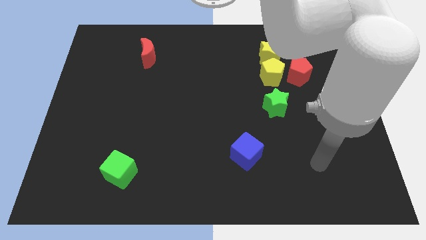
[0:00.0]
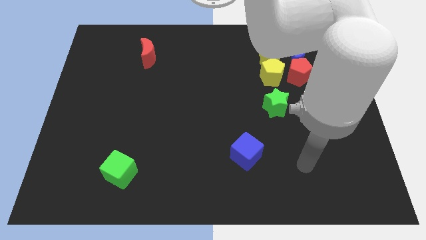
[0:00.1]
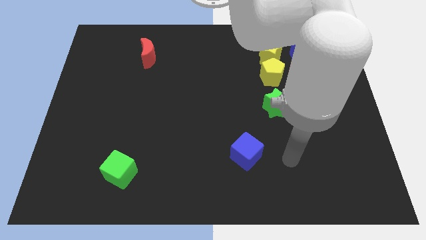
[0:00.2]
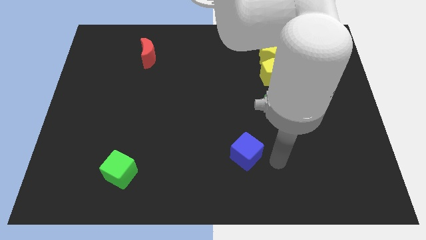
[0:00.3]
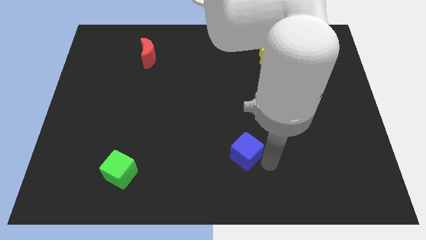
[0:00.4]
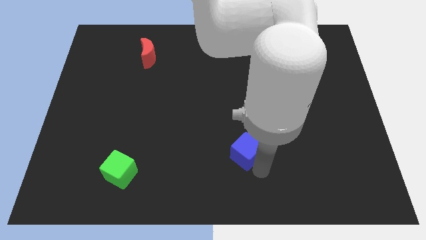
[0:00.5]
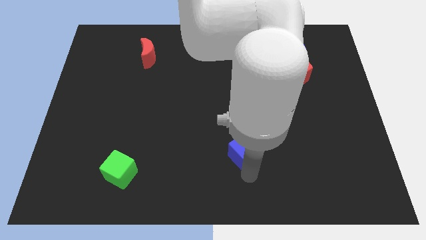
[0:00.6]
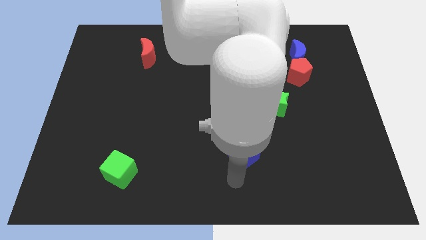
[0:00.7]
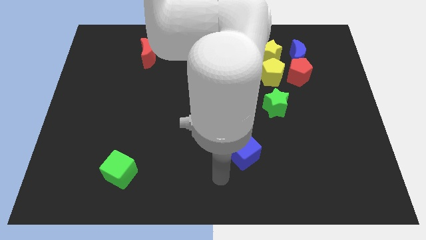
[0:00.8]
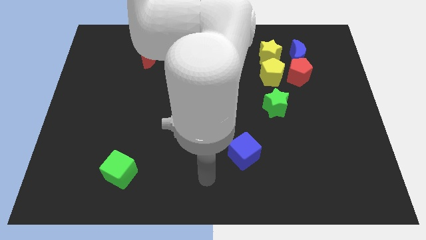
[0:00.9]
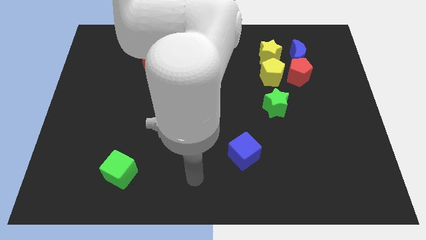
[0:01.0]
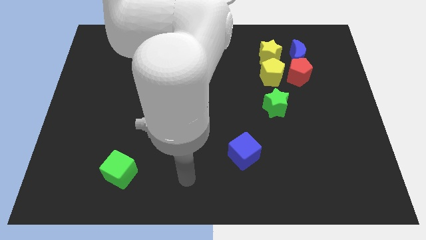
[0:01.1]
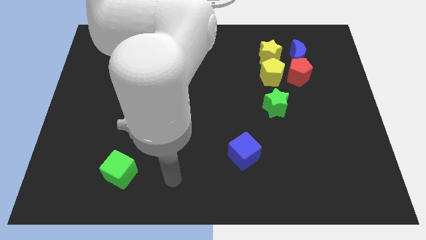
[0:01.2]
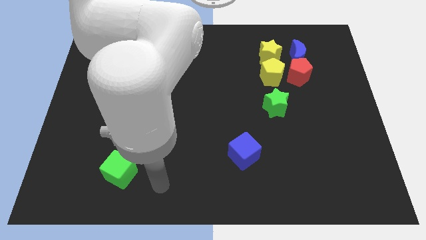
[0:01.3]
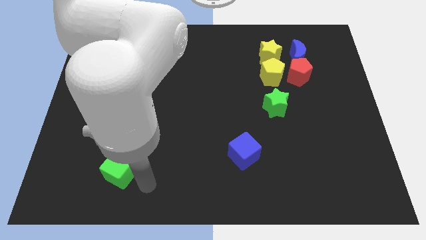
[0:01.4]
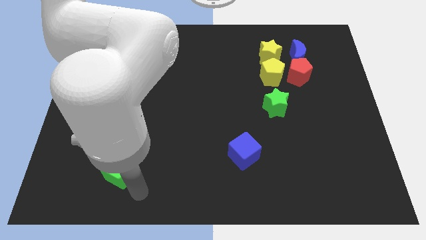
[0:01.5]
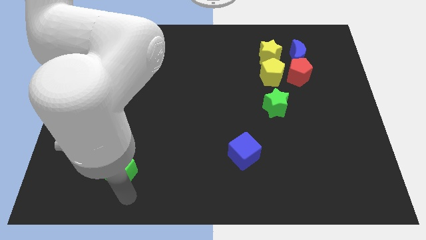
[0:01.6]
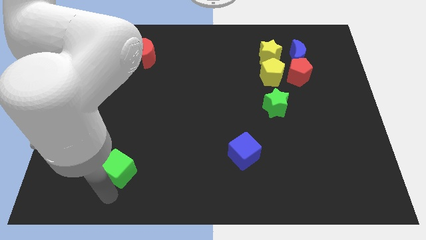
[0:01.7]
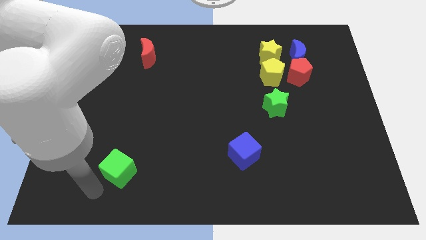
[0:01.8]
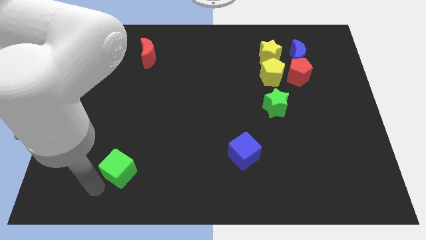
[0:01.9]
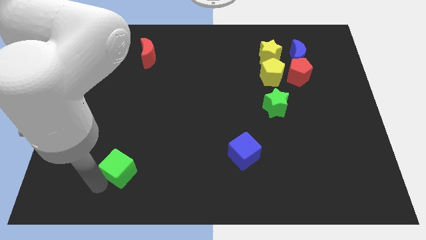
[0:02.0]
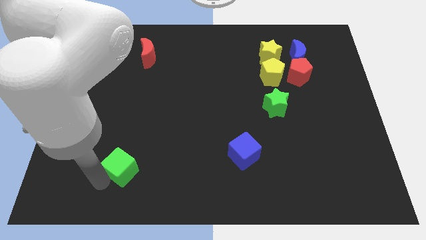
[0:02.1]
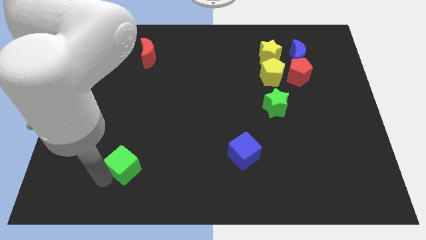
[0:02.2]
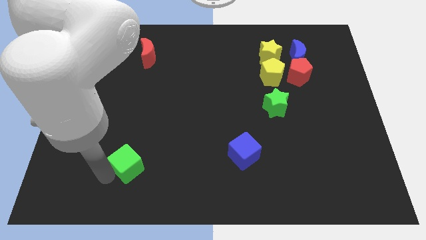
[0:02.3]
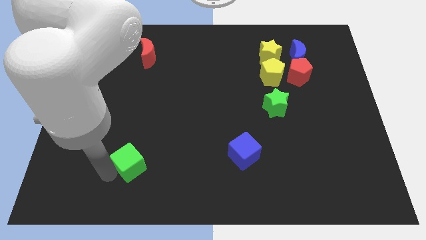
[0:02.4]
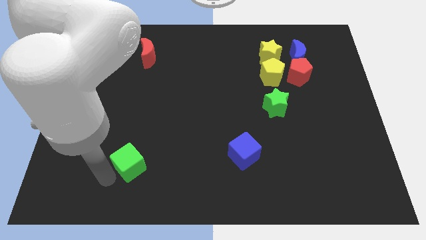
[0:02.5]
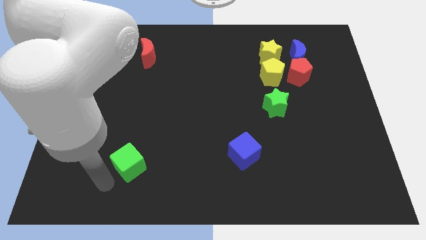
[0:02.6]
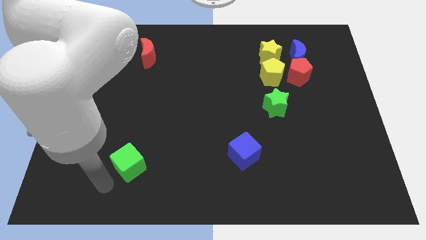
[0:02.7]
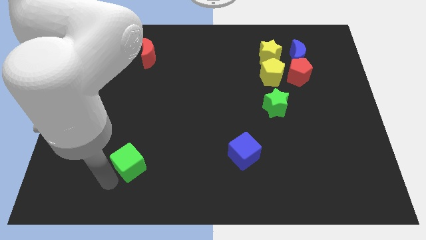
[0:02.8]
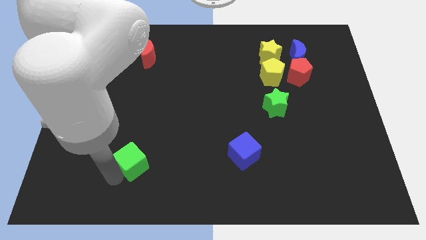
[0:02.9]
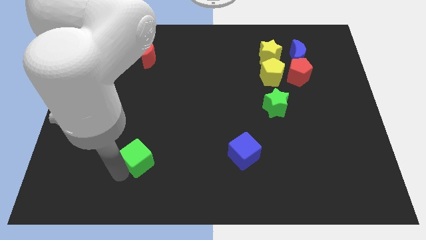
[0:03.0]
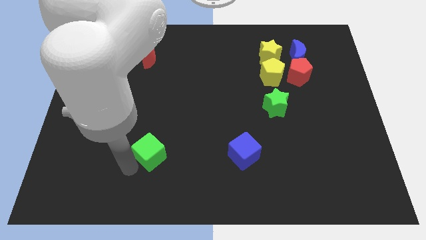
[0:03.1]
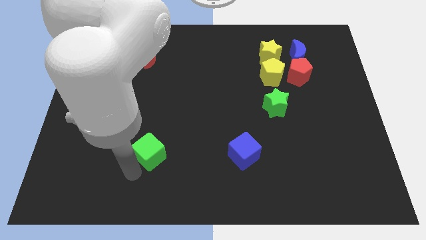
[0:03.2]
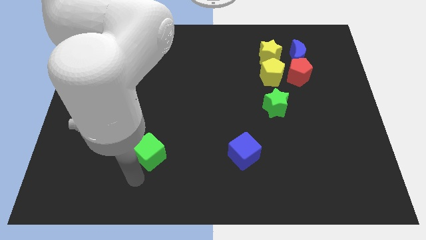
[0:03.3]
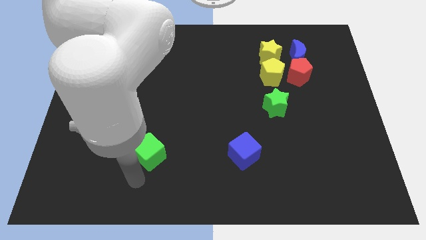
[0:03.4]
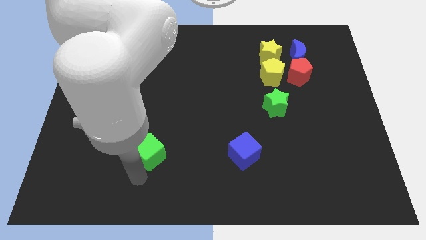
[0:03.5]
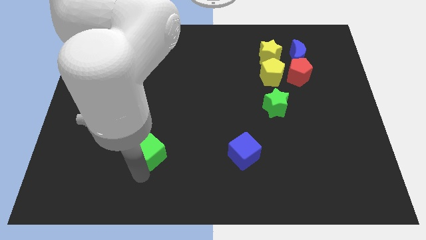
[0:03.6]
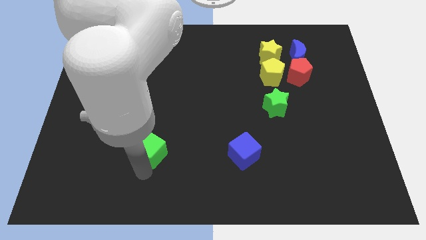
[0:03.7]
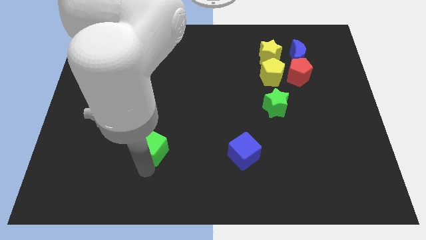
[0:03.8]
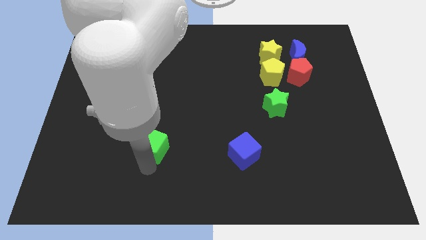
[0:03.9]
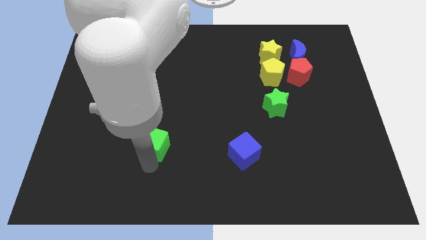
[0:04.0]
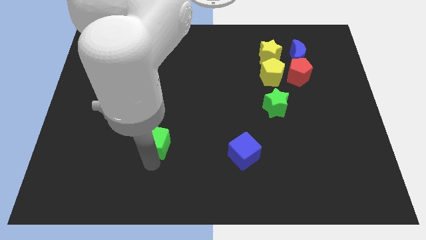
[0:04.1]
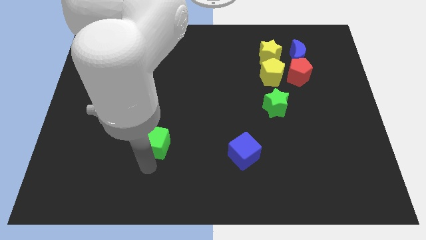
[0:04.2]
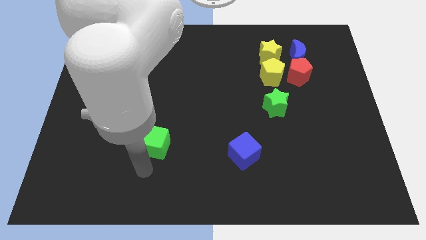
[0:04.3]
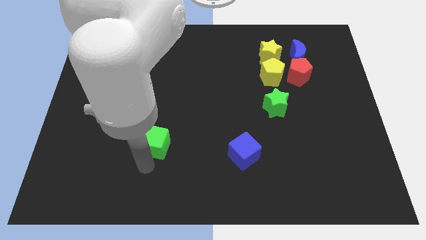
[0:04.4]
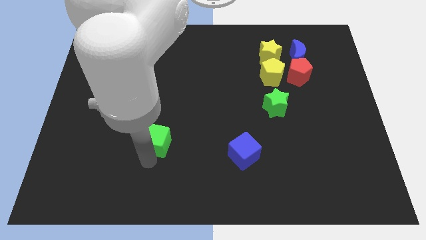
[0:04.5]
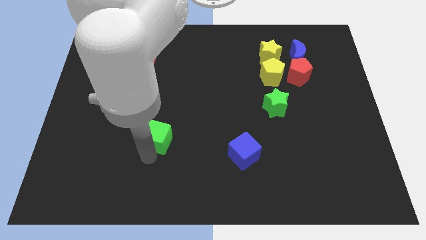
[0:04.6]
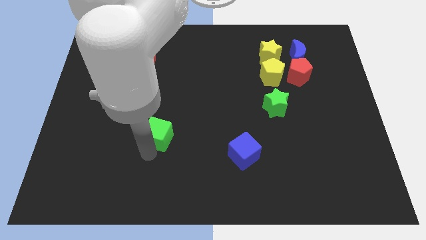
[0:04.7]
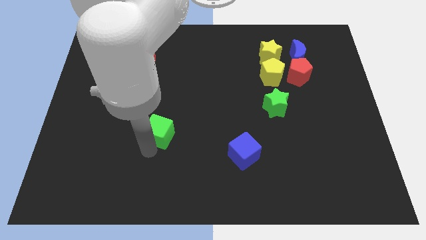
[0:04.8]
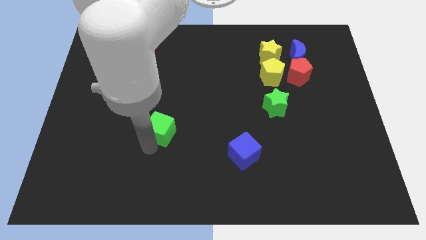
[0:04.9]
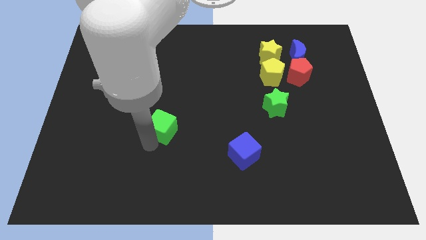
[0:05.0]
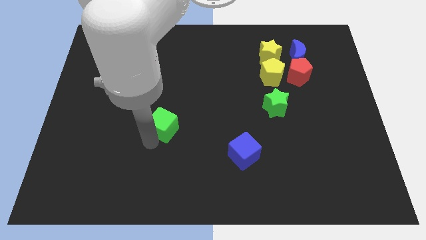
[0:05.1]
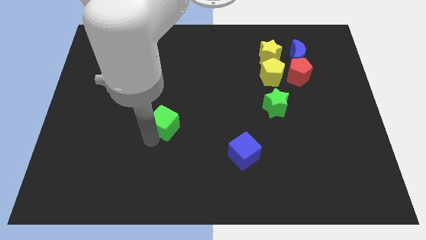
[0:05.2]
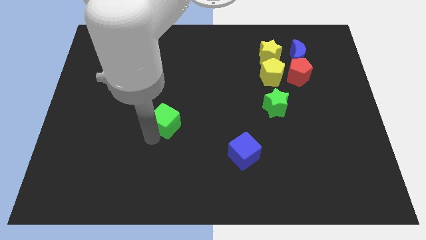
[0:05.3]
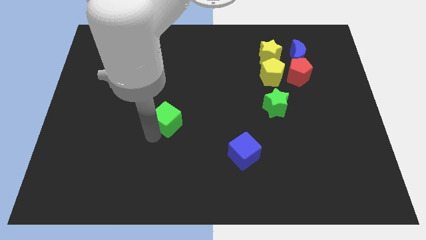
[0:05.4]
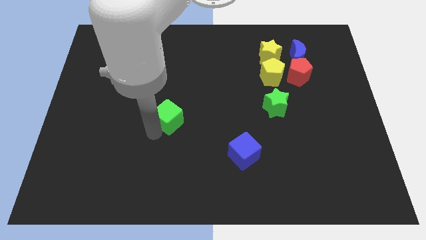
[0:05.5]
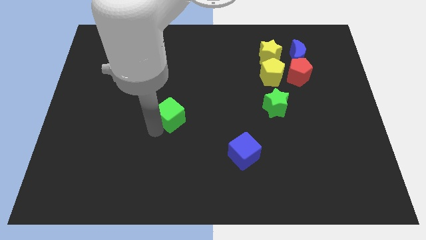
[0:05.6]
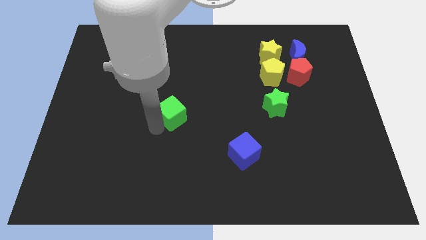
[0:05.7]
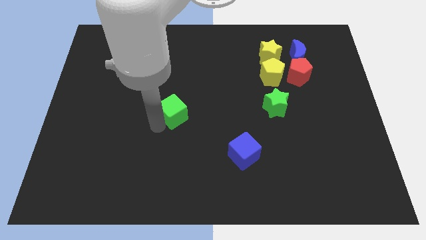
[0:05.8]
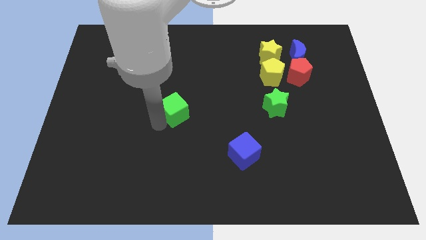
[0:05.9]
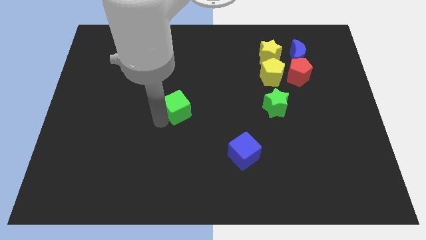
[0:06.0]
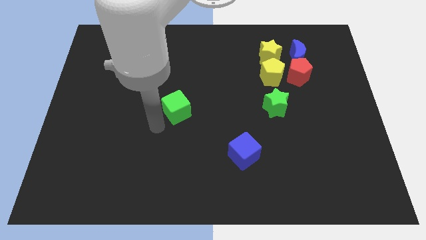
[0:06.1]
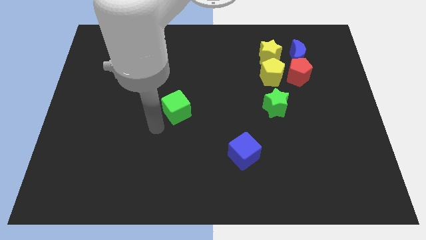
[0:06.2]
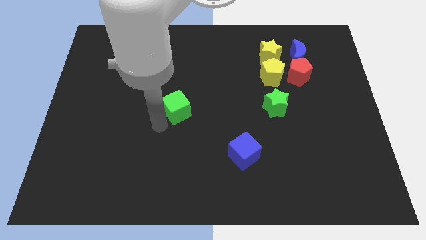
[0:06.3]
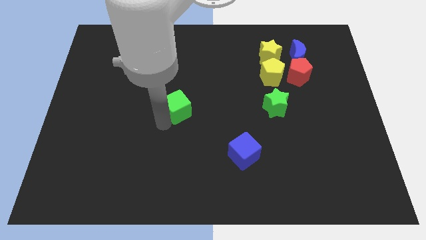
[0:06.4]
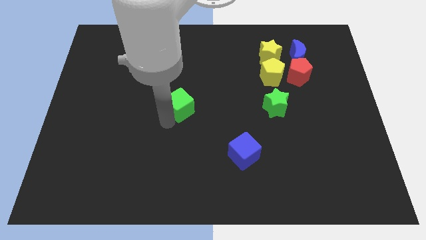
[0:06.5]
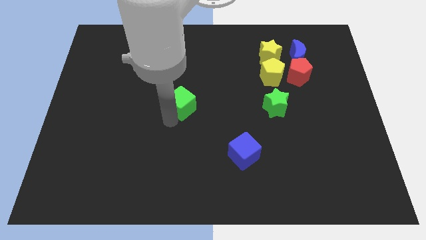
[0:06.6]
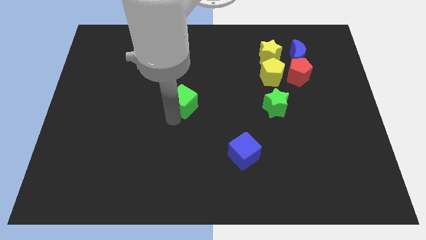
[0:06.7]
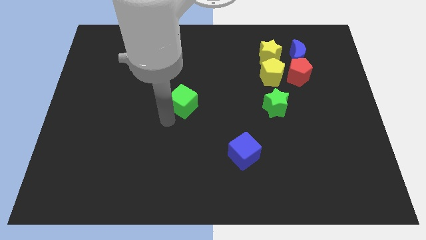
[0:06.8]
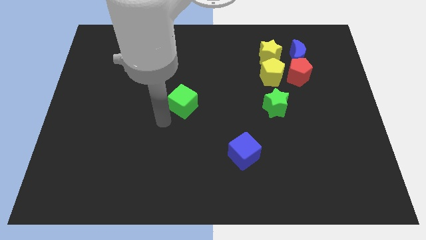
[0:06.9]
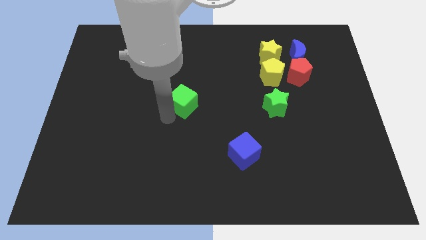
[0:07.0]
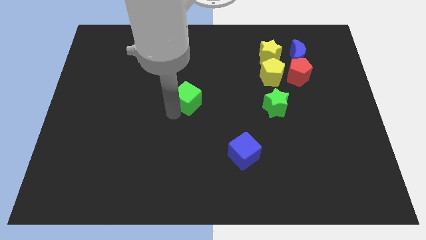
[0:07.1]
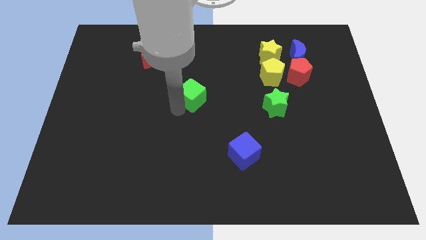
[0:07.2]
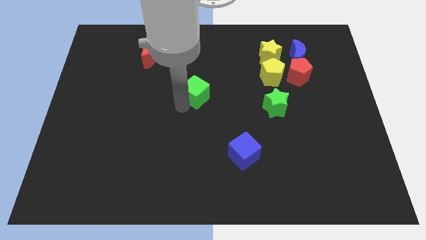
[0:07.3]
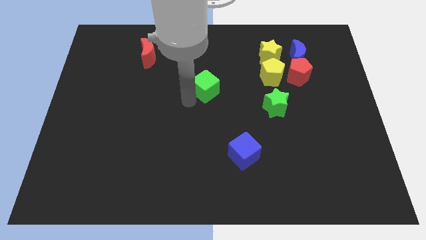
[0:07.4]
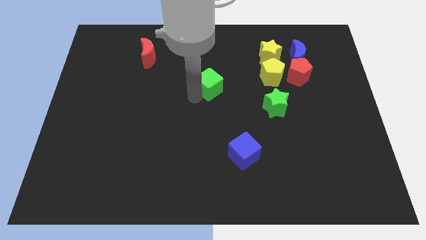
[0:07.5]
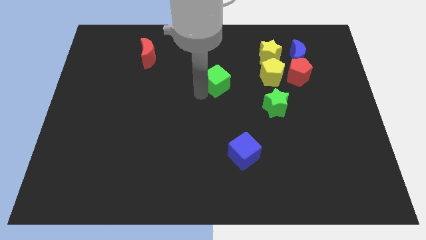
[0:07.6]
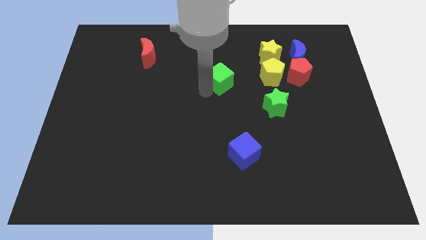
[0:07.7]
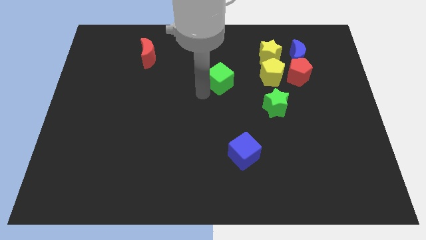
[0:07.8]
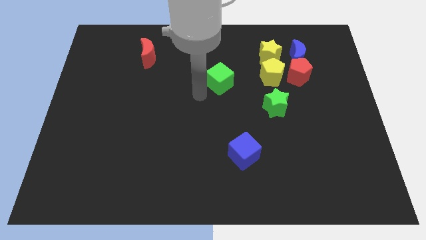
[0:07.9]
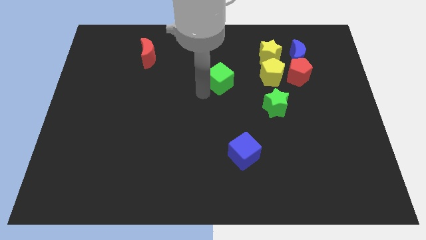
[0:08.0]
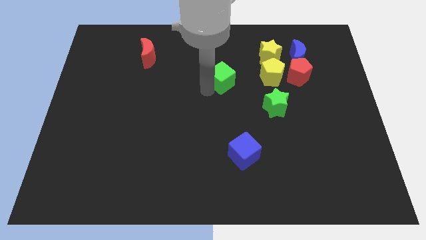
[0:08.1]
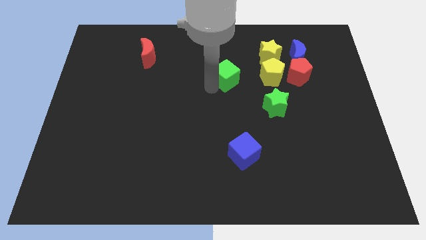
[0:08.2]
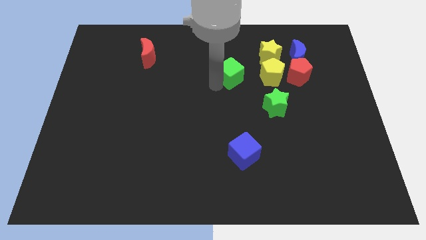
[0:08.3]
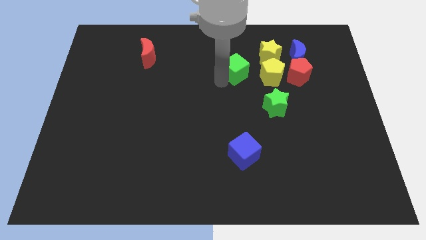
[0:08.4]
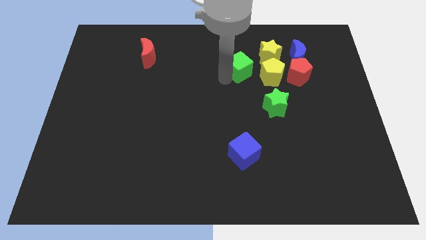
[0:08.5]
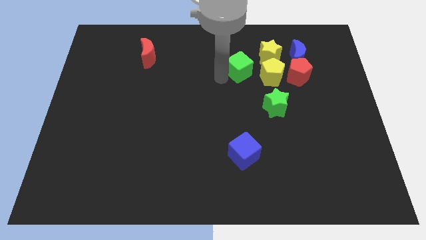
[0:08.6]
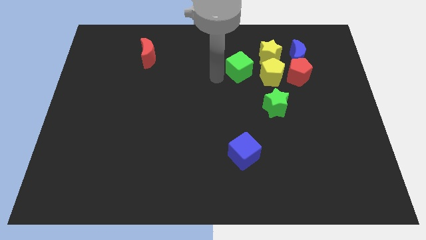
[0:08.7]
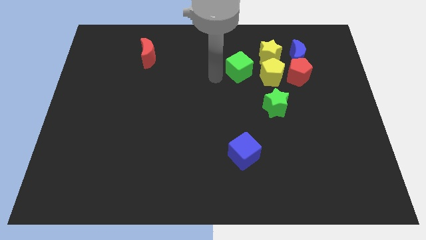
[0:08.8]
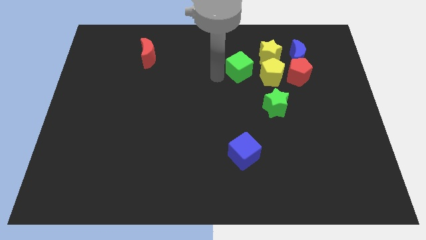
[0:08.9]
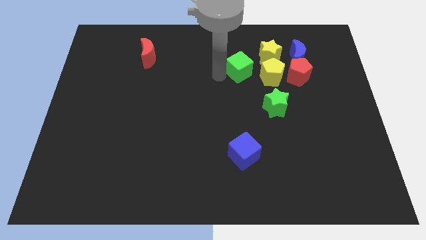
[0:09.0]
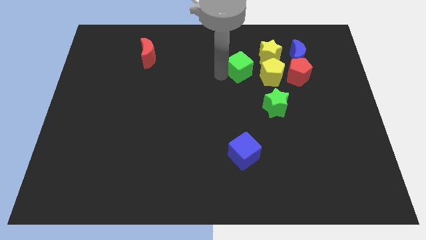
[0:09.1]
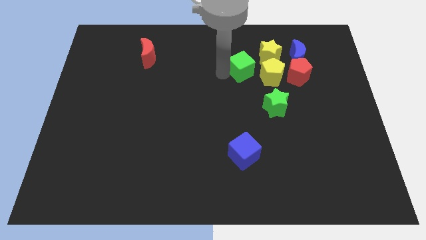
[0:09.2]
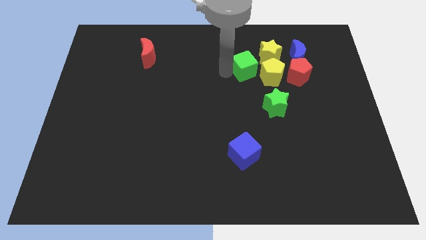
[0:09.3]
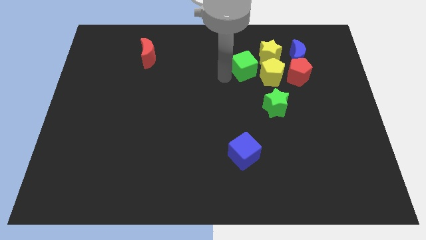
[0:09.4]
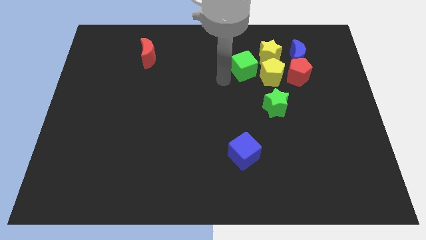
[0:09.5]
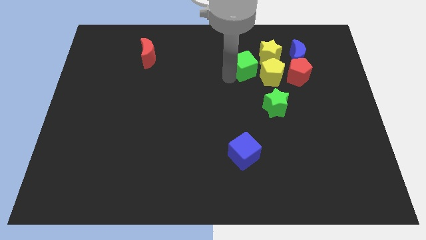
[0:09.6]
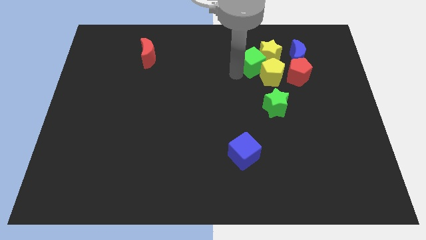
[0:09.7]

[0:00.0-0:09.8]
put the green cube towards the yellow star
